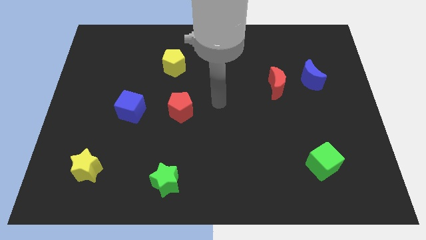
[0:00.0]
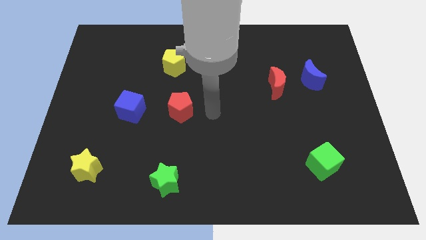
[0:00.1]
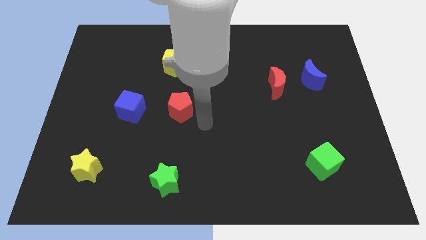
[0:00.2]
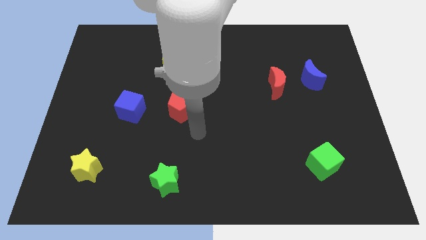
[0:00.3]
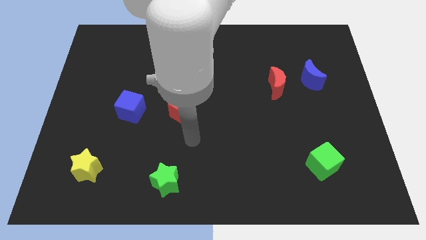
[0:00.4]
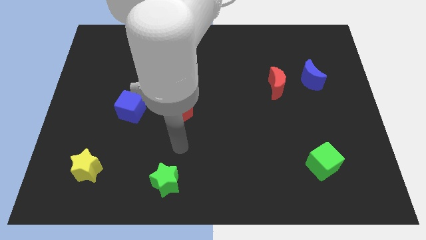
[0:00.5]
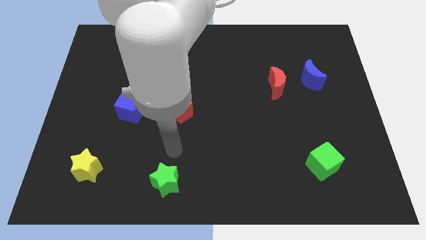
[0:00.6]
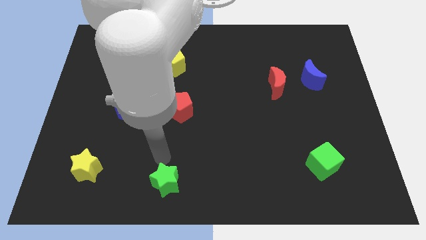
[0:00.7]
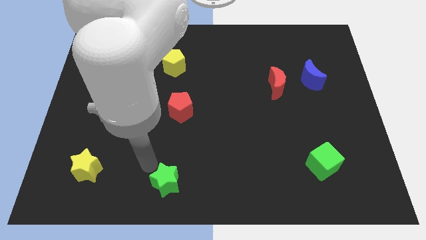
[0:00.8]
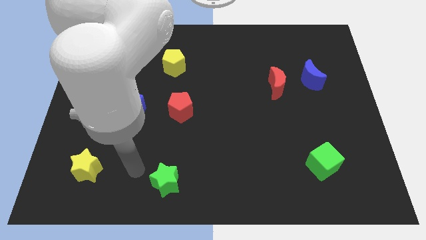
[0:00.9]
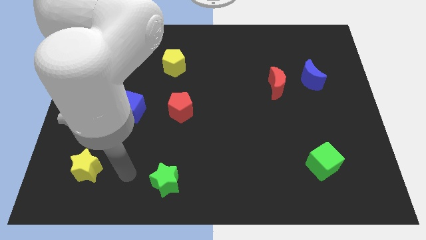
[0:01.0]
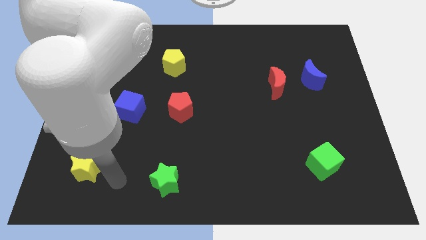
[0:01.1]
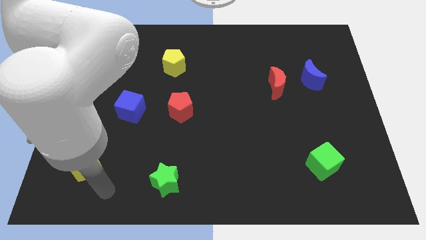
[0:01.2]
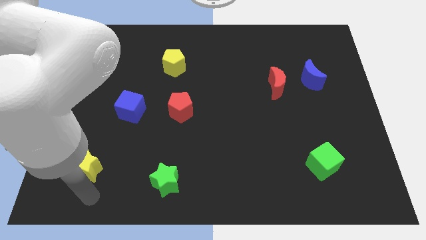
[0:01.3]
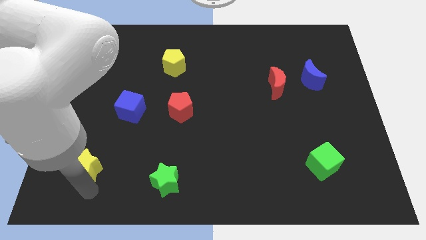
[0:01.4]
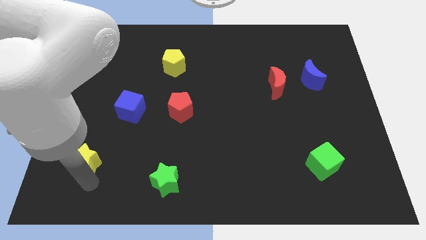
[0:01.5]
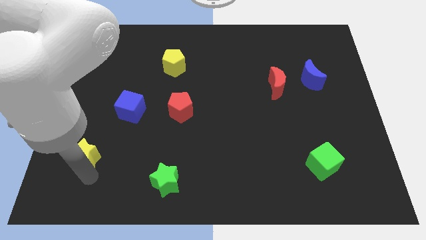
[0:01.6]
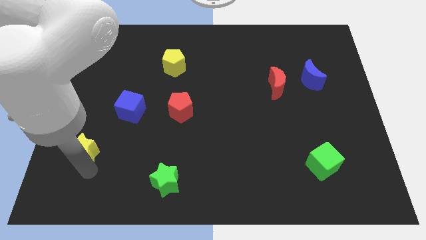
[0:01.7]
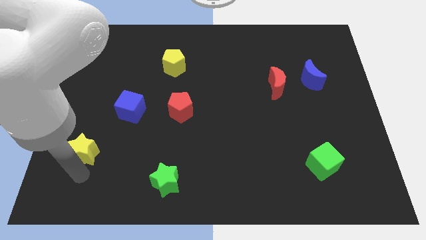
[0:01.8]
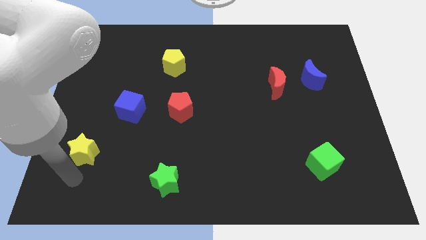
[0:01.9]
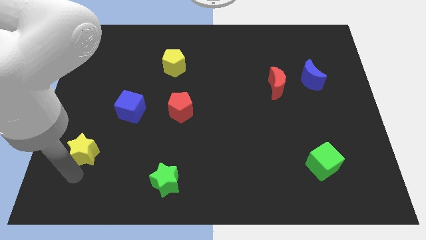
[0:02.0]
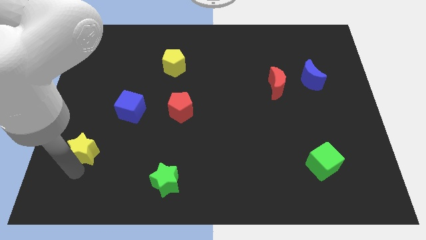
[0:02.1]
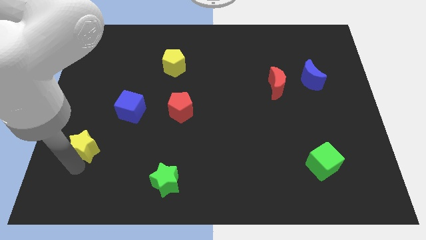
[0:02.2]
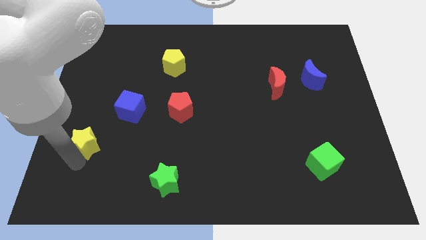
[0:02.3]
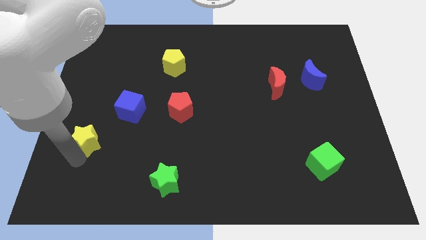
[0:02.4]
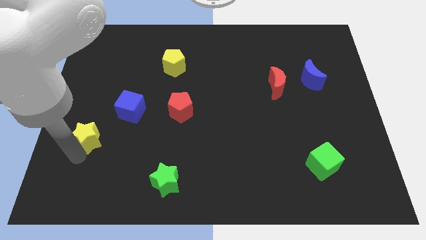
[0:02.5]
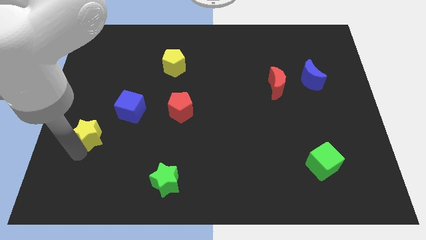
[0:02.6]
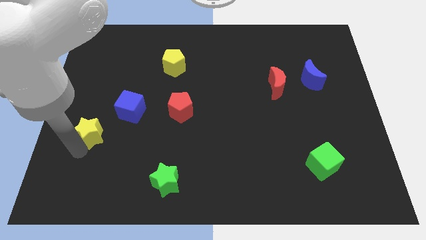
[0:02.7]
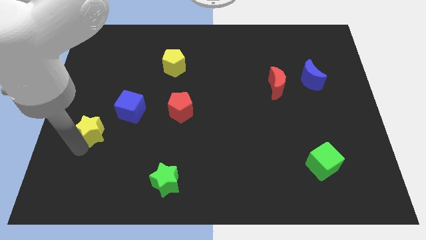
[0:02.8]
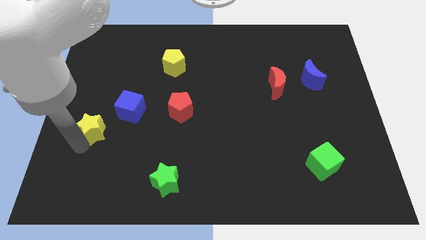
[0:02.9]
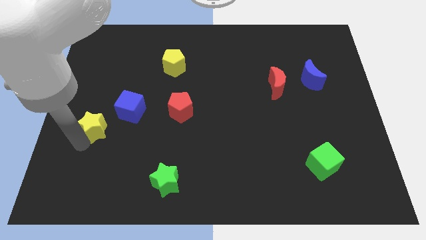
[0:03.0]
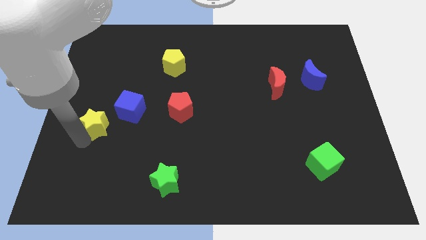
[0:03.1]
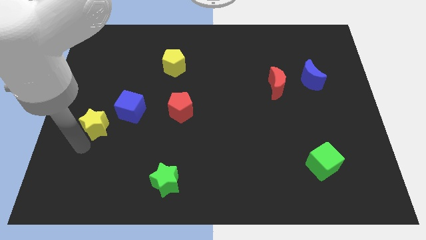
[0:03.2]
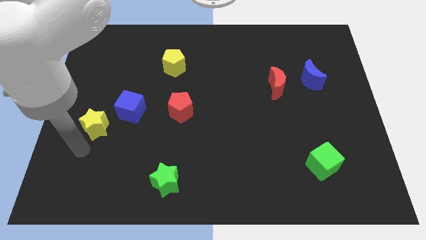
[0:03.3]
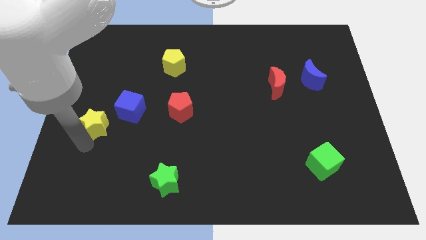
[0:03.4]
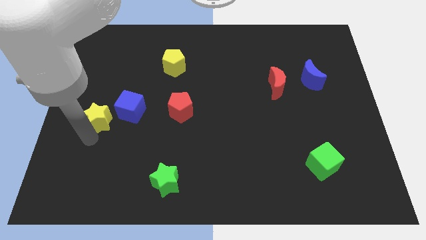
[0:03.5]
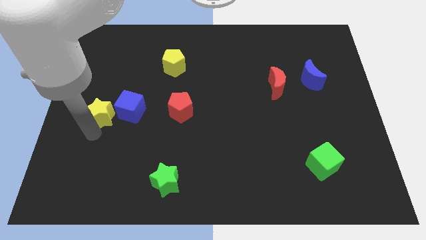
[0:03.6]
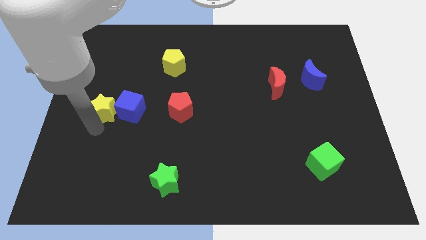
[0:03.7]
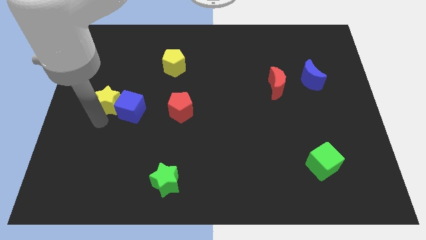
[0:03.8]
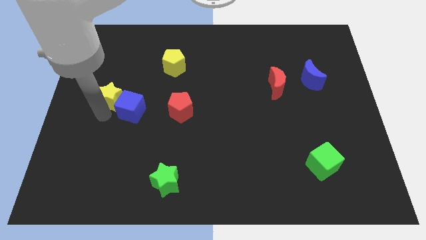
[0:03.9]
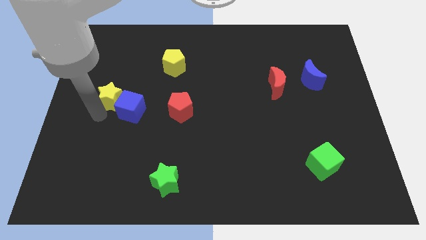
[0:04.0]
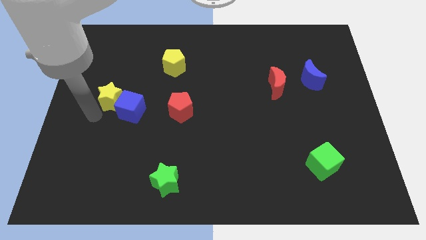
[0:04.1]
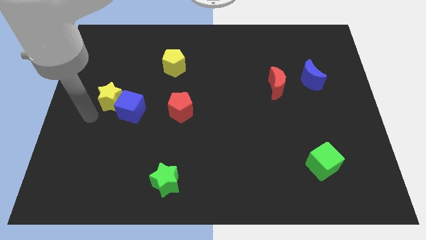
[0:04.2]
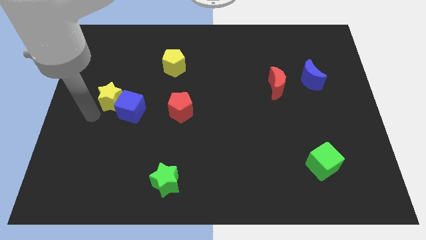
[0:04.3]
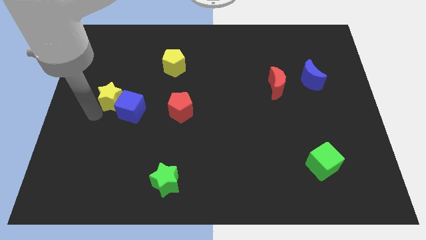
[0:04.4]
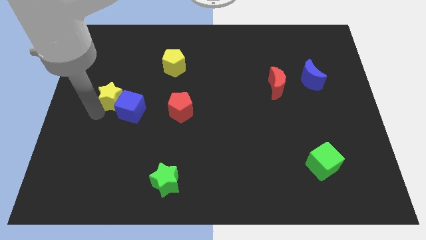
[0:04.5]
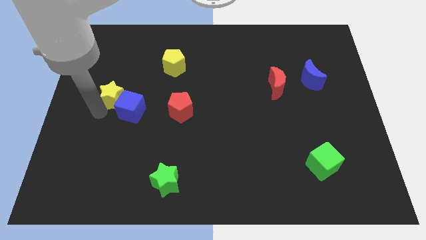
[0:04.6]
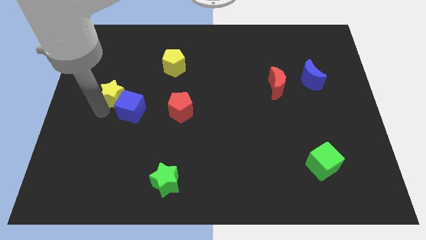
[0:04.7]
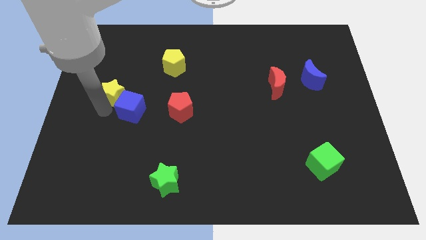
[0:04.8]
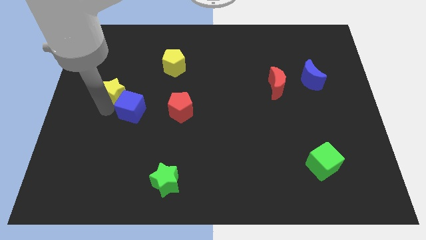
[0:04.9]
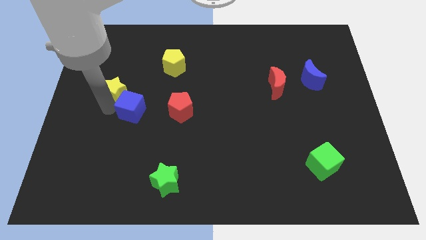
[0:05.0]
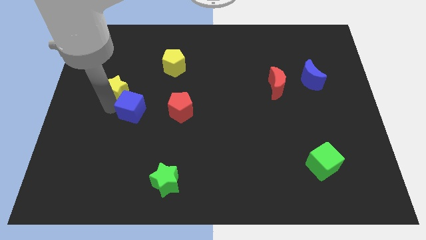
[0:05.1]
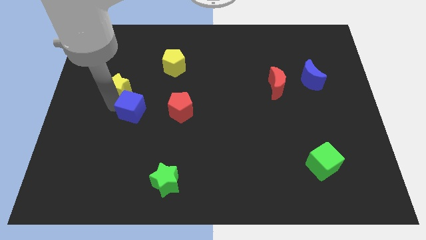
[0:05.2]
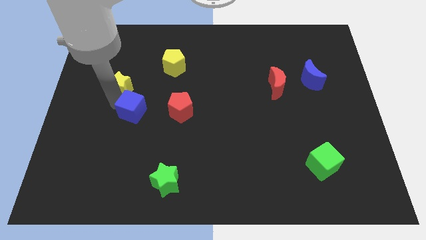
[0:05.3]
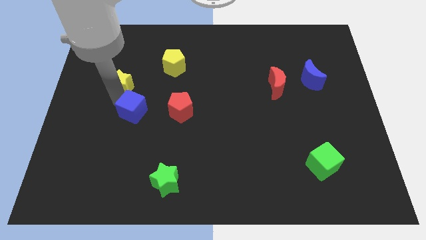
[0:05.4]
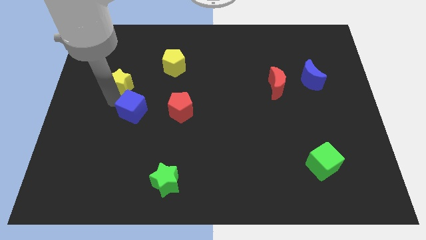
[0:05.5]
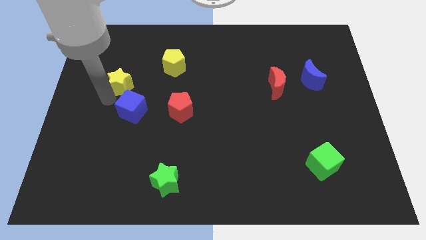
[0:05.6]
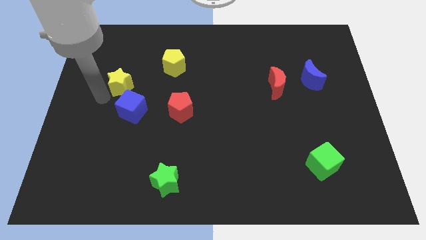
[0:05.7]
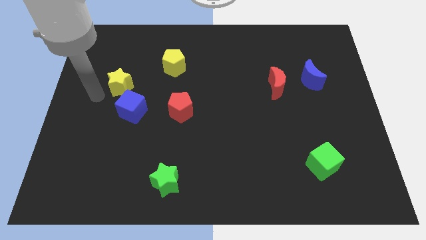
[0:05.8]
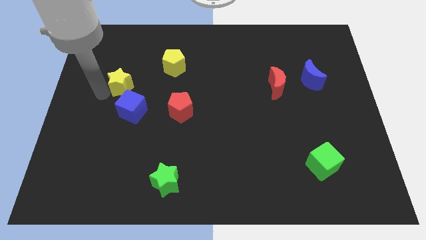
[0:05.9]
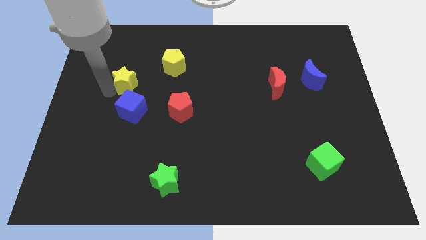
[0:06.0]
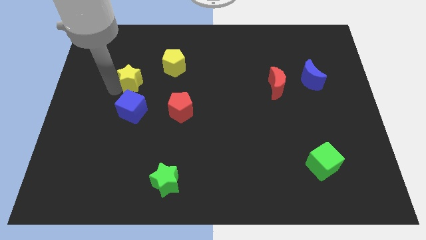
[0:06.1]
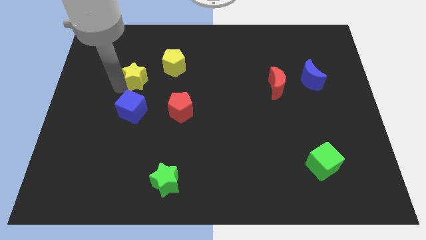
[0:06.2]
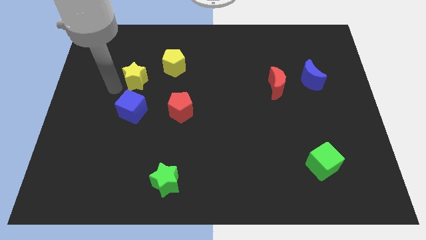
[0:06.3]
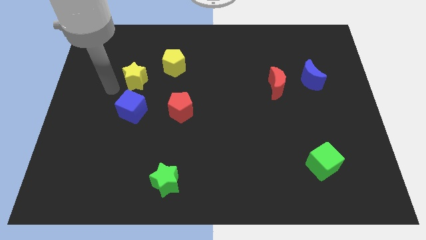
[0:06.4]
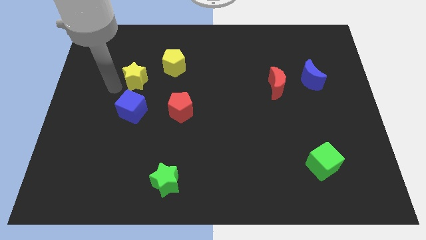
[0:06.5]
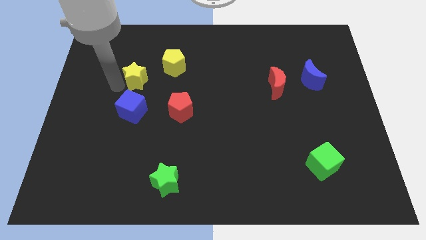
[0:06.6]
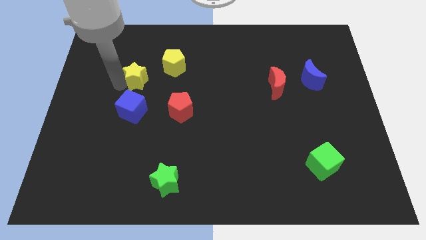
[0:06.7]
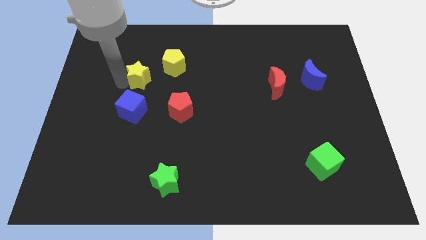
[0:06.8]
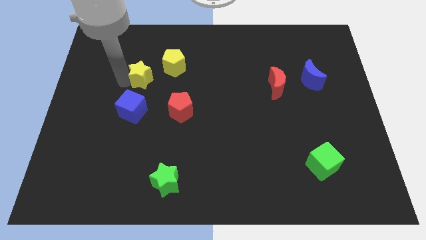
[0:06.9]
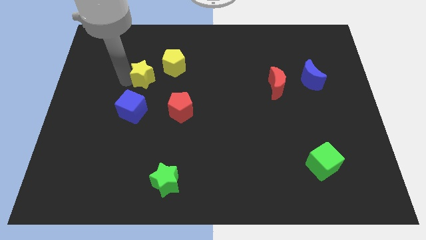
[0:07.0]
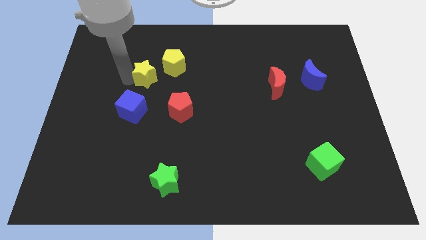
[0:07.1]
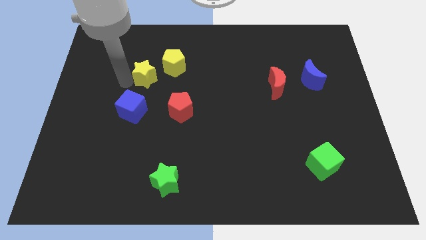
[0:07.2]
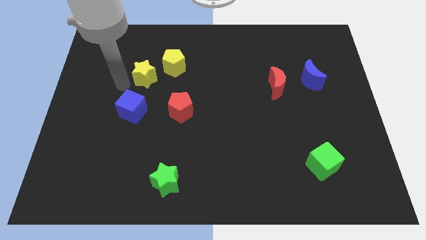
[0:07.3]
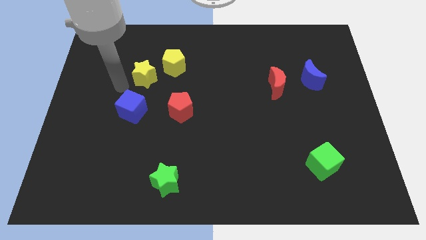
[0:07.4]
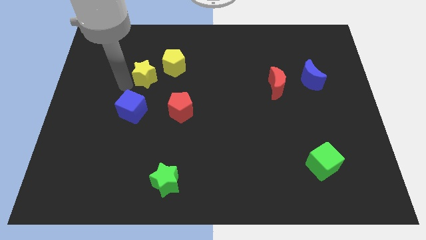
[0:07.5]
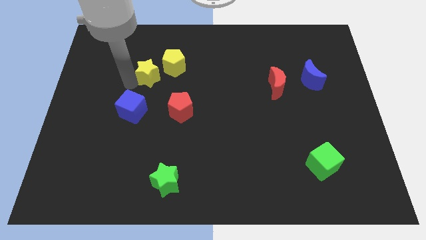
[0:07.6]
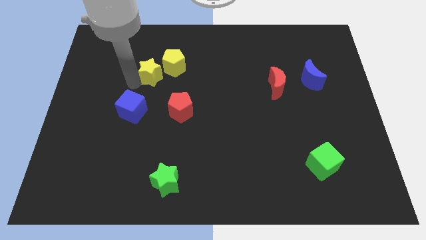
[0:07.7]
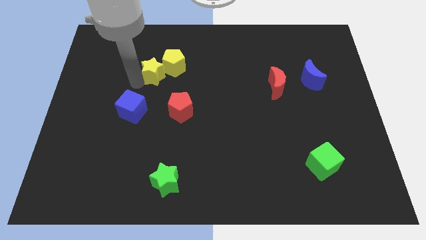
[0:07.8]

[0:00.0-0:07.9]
slide the yellow star next to the yellow pentagon
